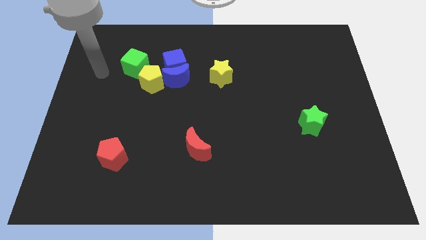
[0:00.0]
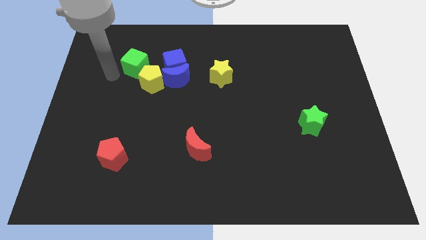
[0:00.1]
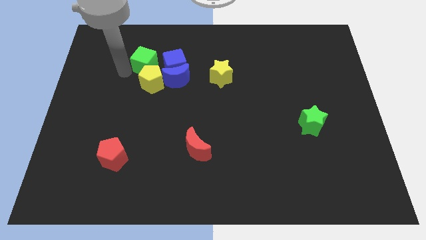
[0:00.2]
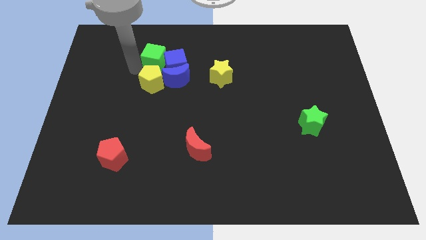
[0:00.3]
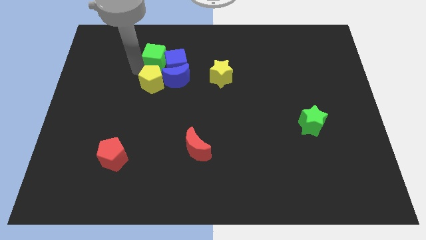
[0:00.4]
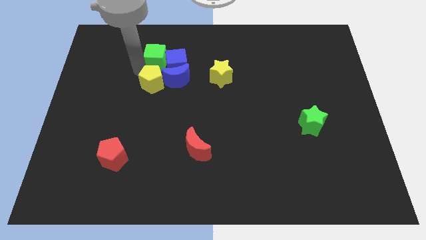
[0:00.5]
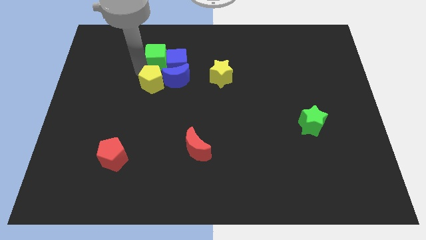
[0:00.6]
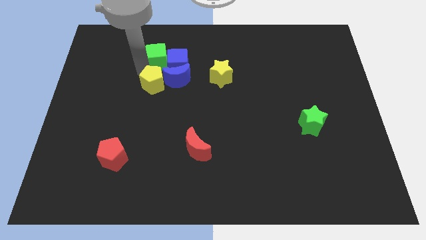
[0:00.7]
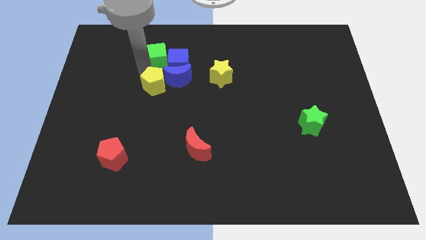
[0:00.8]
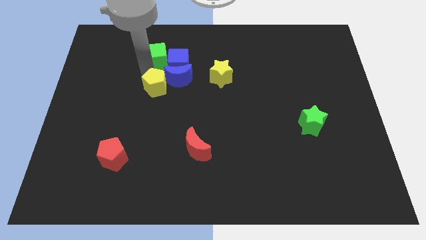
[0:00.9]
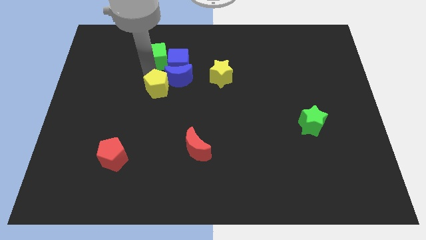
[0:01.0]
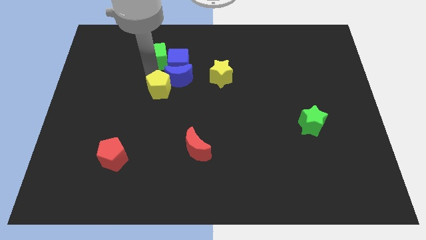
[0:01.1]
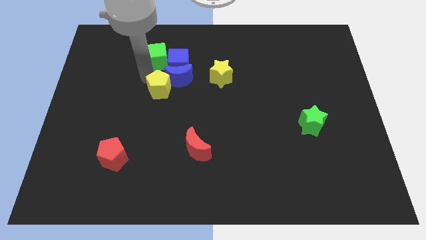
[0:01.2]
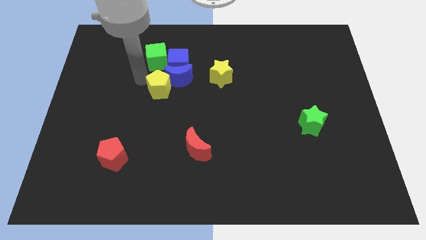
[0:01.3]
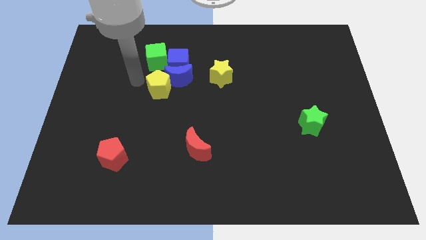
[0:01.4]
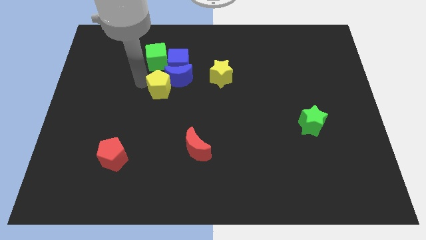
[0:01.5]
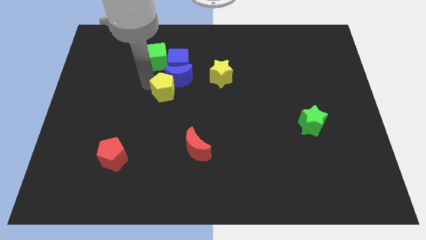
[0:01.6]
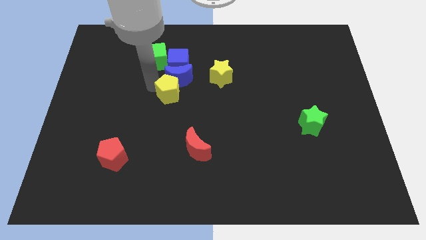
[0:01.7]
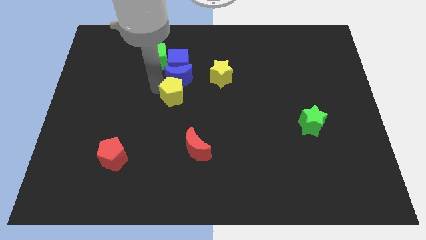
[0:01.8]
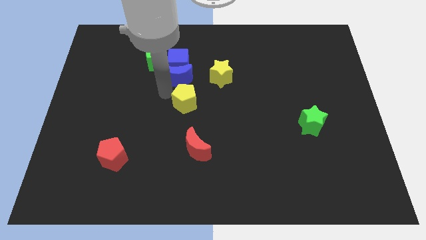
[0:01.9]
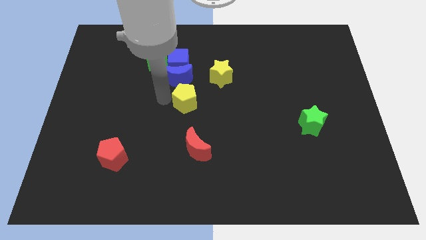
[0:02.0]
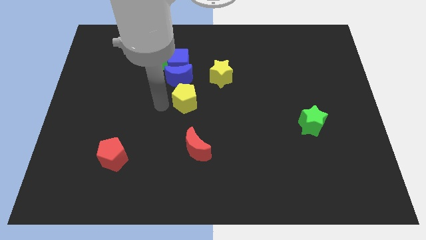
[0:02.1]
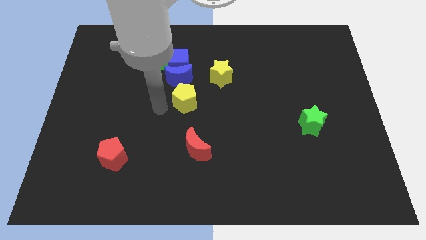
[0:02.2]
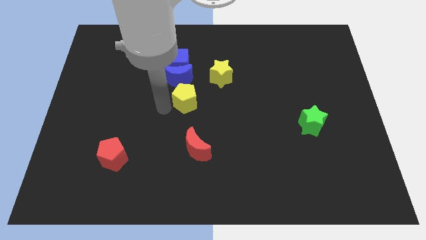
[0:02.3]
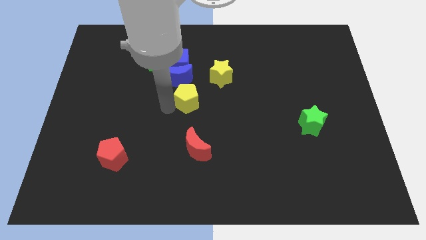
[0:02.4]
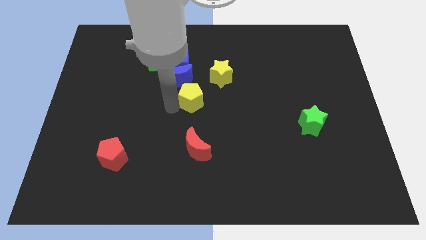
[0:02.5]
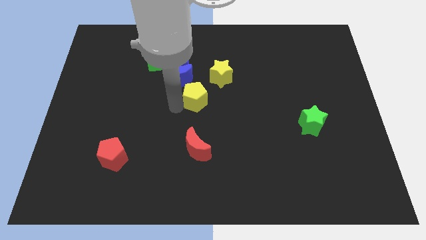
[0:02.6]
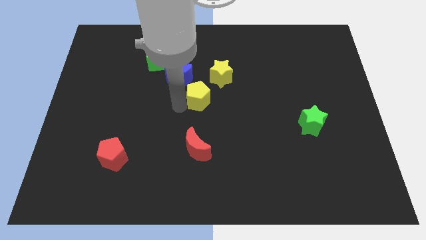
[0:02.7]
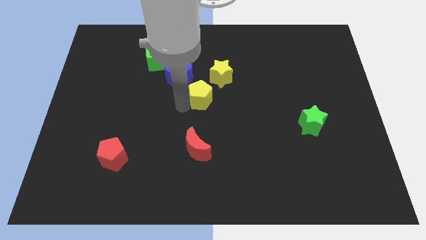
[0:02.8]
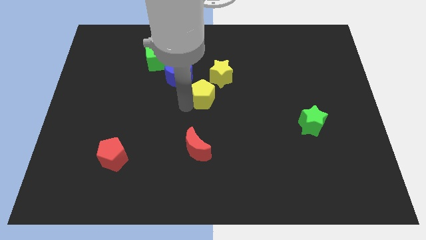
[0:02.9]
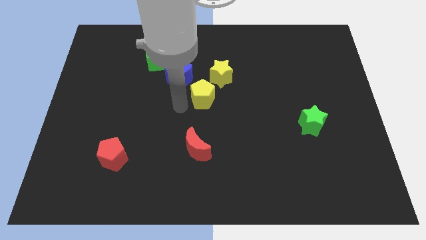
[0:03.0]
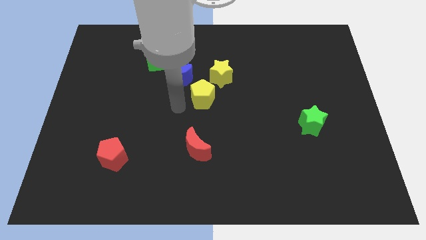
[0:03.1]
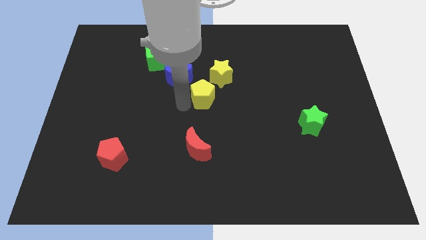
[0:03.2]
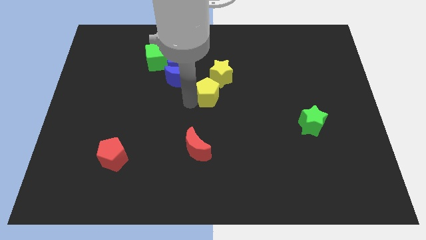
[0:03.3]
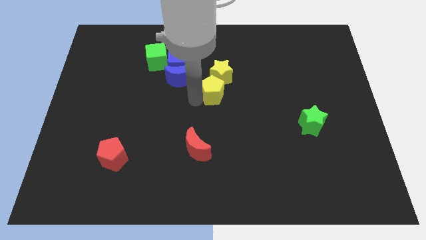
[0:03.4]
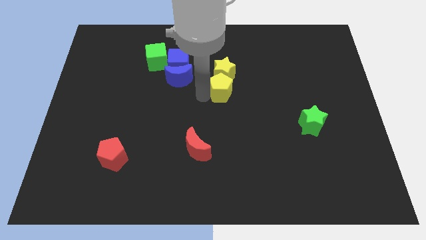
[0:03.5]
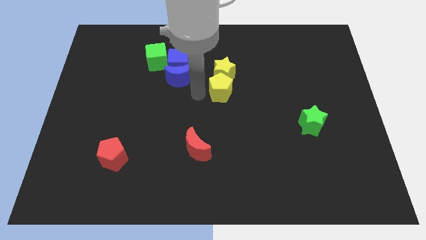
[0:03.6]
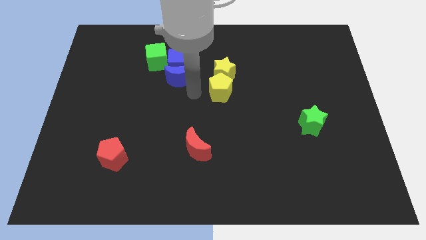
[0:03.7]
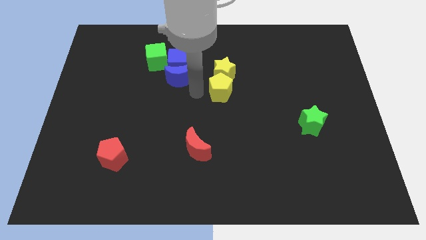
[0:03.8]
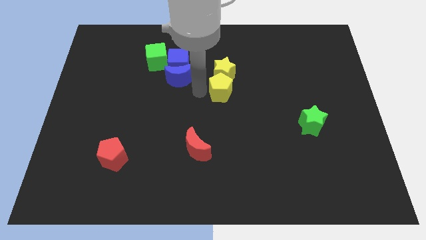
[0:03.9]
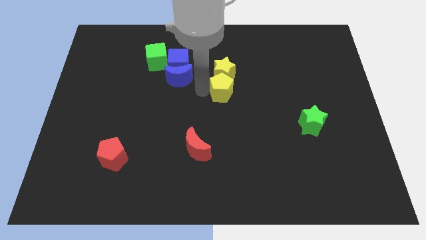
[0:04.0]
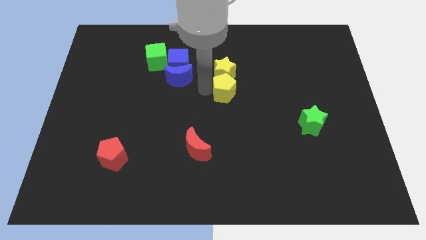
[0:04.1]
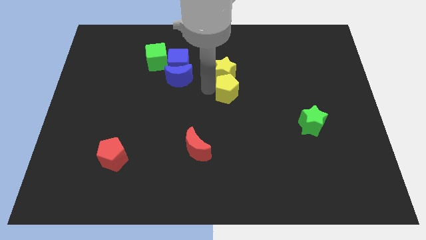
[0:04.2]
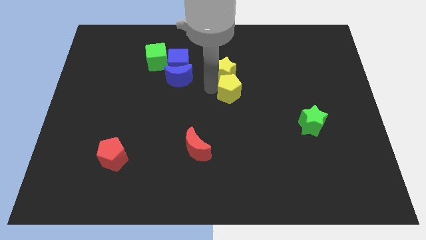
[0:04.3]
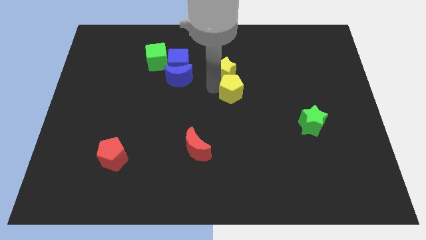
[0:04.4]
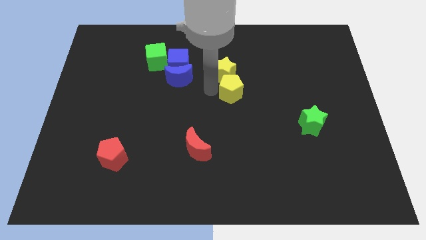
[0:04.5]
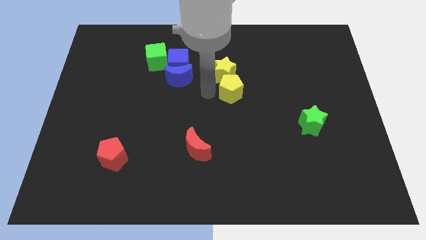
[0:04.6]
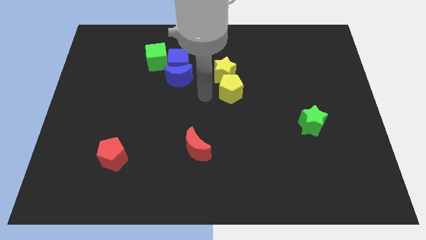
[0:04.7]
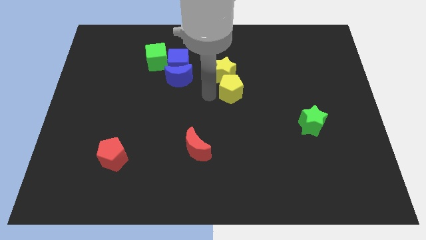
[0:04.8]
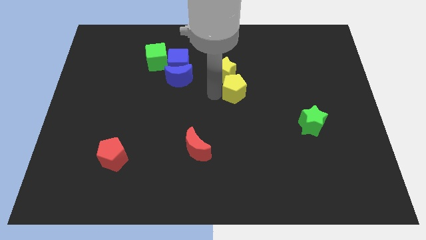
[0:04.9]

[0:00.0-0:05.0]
slide the yellow pentagon right

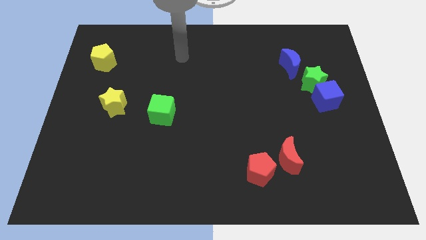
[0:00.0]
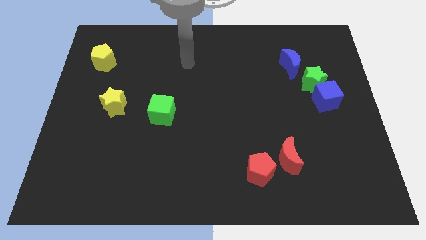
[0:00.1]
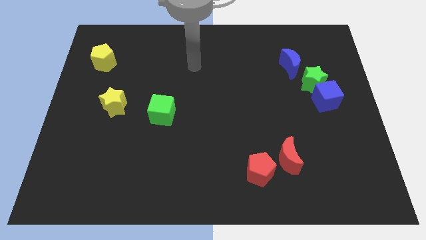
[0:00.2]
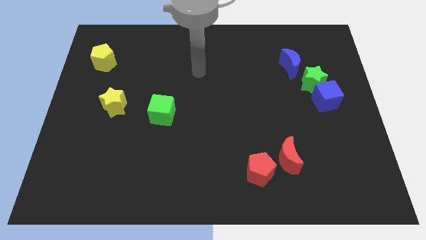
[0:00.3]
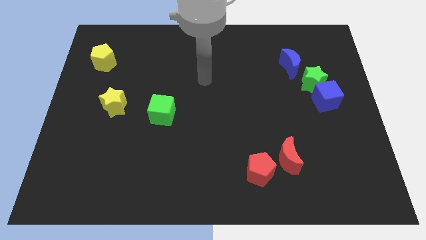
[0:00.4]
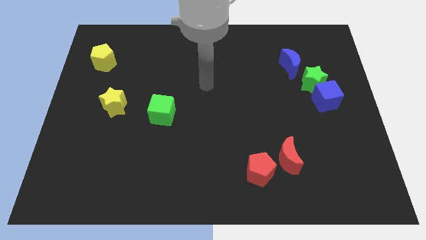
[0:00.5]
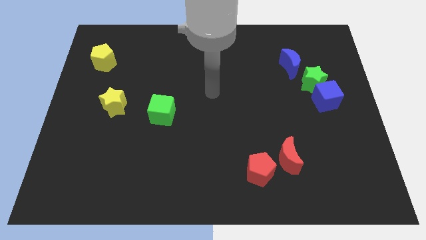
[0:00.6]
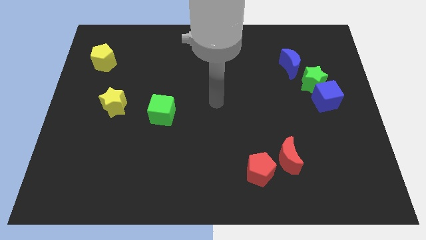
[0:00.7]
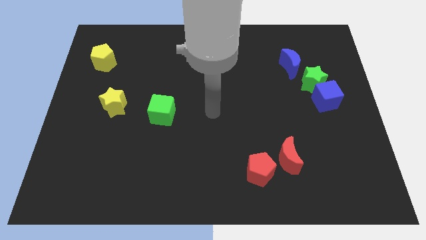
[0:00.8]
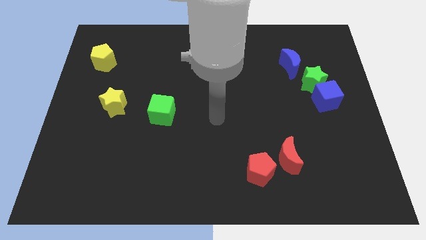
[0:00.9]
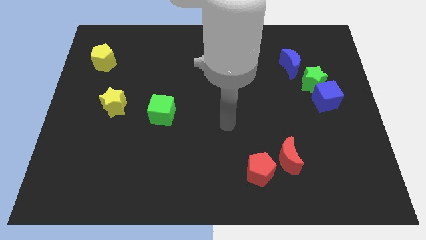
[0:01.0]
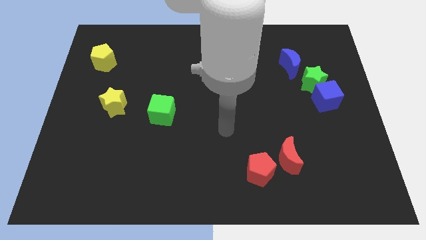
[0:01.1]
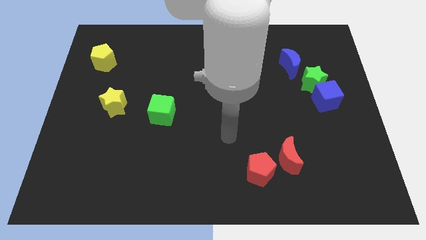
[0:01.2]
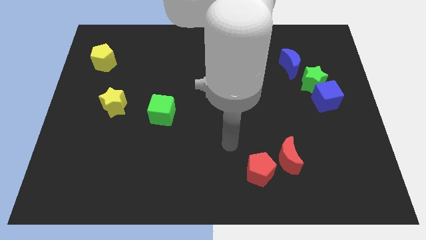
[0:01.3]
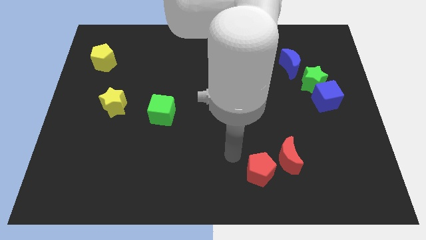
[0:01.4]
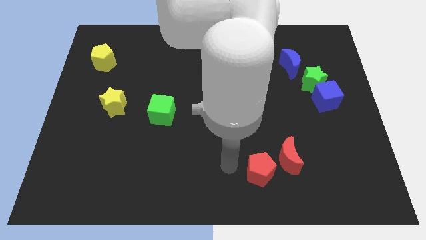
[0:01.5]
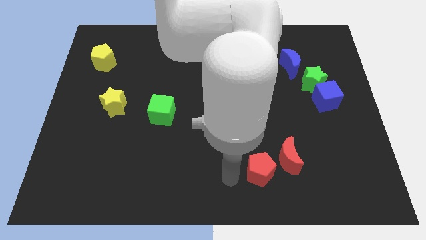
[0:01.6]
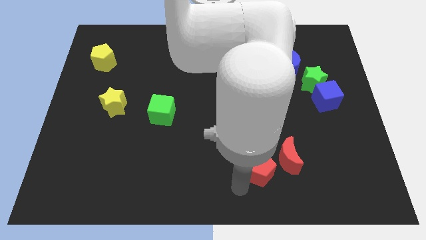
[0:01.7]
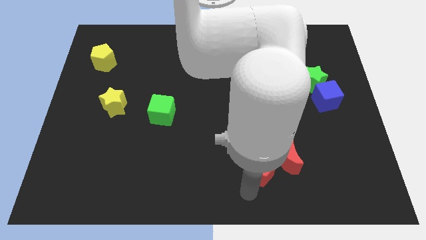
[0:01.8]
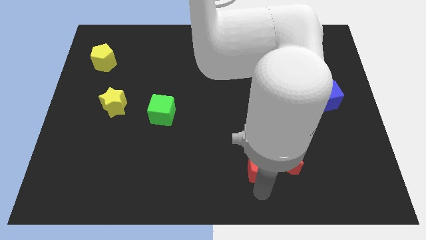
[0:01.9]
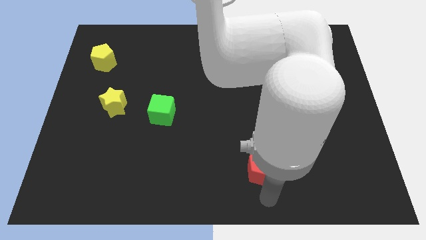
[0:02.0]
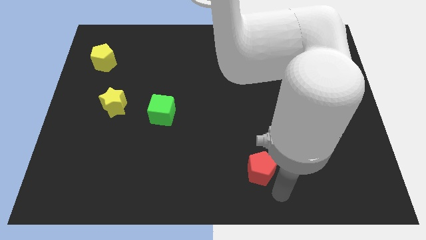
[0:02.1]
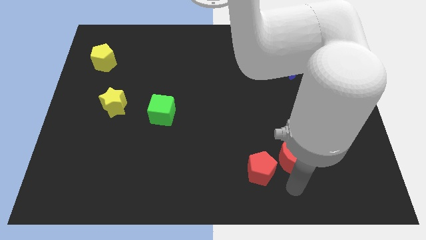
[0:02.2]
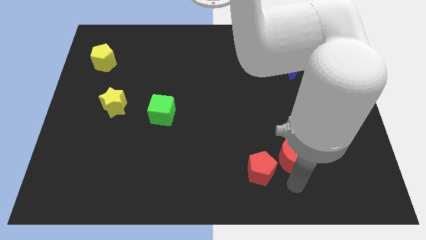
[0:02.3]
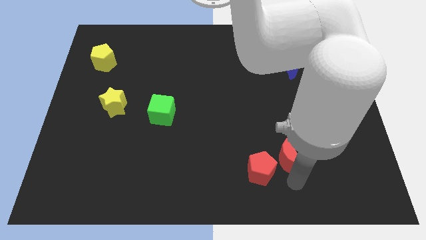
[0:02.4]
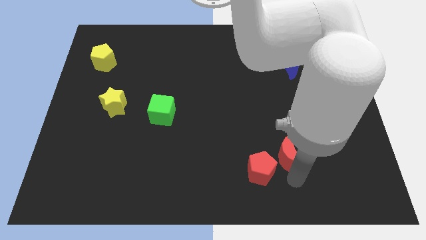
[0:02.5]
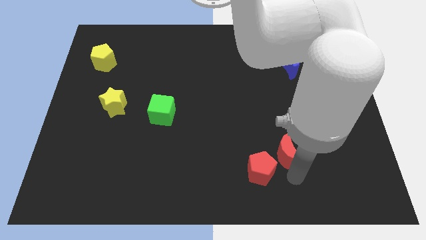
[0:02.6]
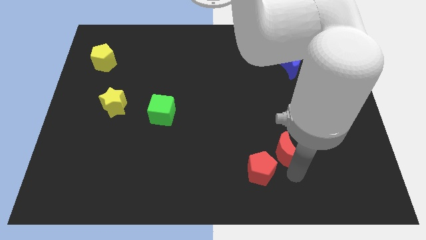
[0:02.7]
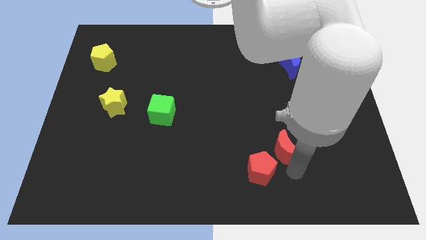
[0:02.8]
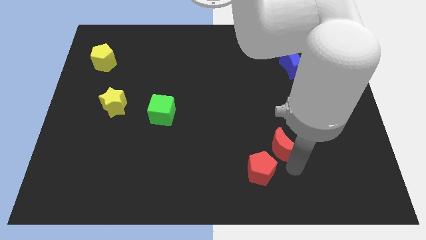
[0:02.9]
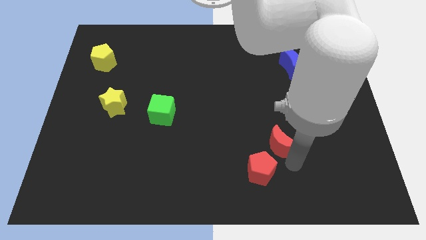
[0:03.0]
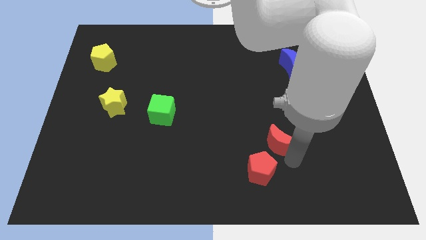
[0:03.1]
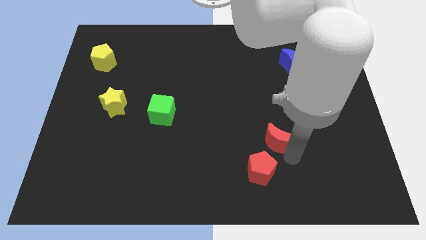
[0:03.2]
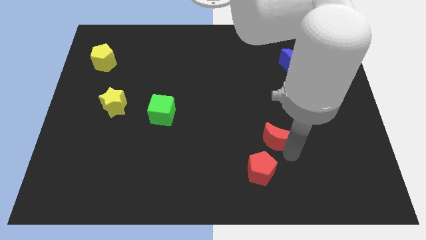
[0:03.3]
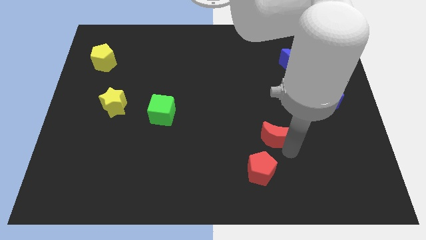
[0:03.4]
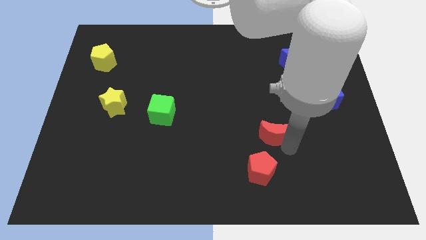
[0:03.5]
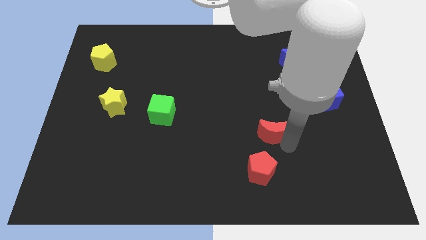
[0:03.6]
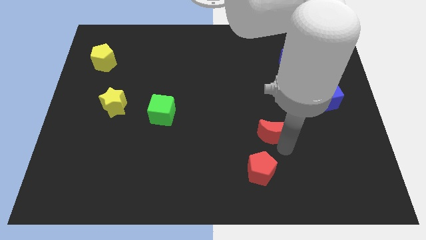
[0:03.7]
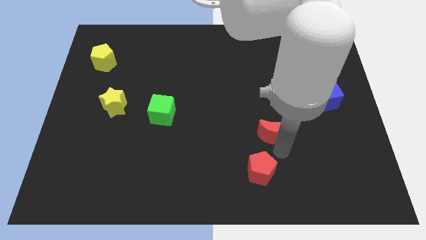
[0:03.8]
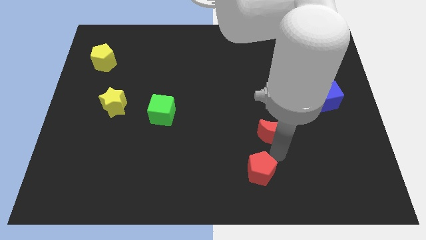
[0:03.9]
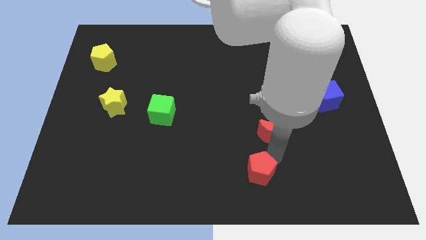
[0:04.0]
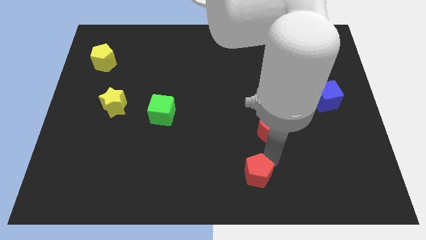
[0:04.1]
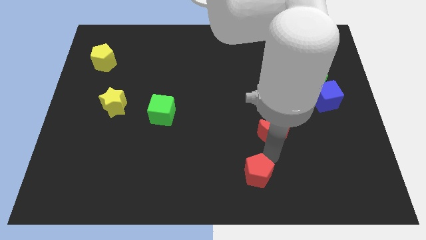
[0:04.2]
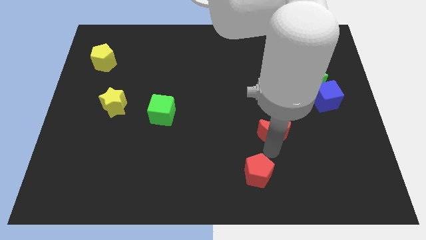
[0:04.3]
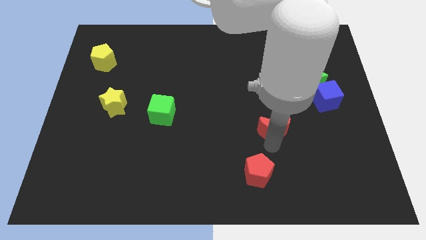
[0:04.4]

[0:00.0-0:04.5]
slightly move the red moon upwards
